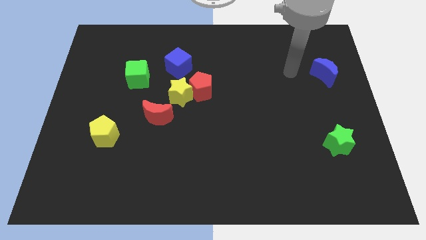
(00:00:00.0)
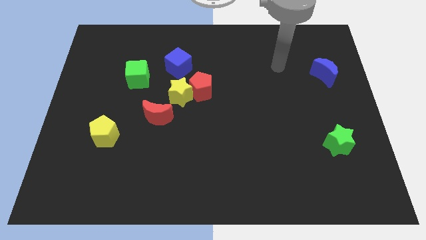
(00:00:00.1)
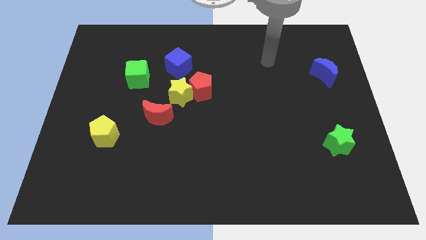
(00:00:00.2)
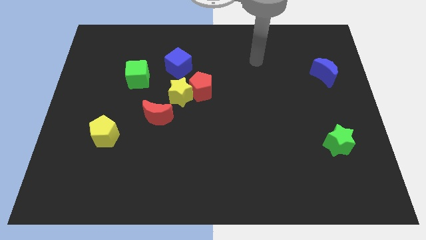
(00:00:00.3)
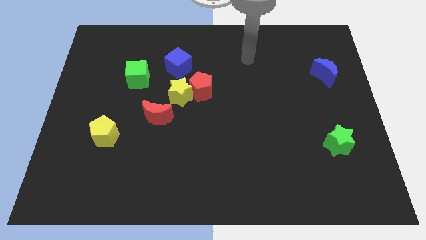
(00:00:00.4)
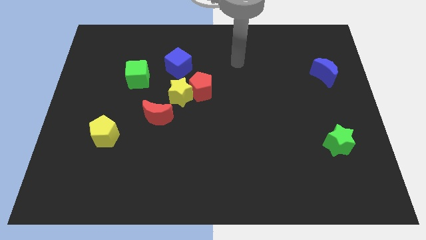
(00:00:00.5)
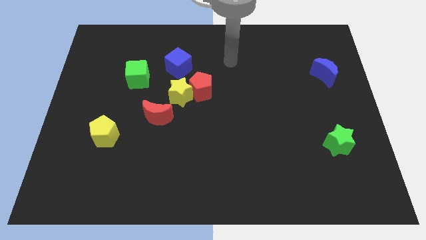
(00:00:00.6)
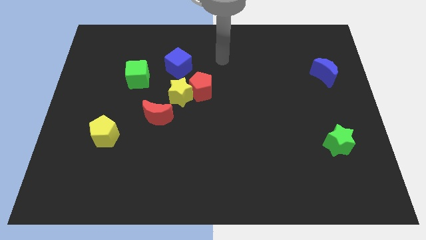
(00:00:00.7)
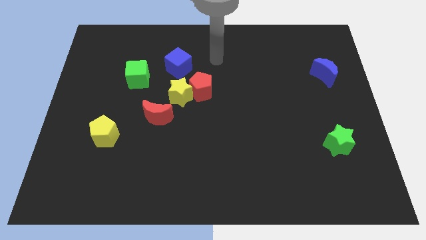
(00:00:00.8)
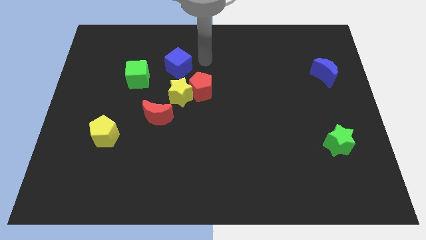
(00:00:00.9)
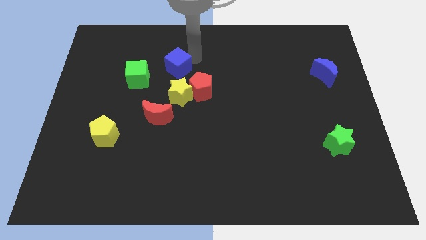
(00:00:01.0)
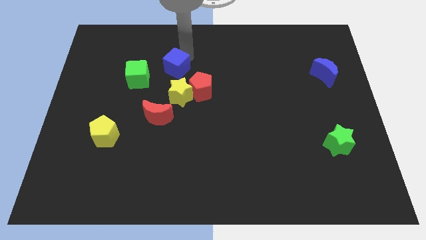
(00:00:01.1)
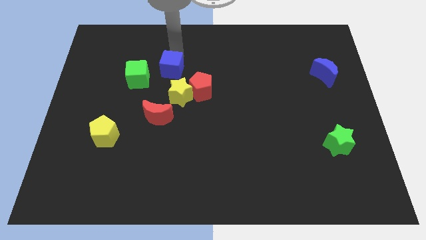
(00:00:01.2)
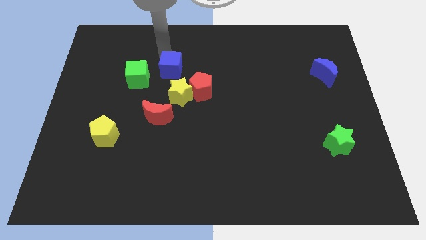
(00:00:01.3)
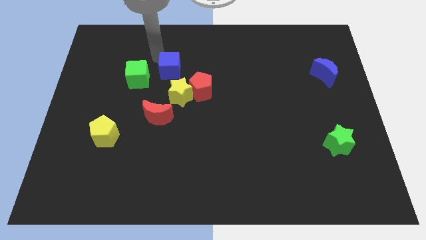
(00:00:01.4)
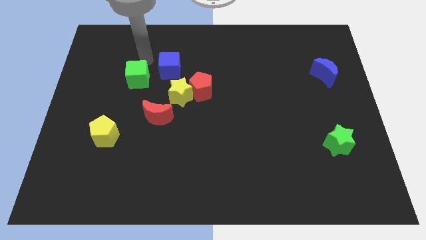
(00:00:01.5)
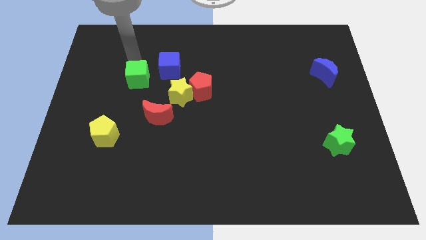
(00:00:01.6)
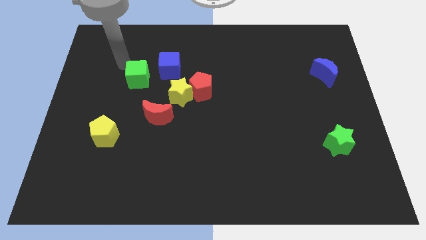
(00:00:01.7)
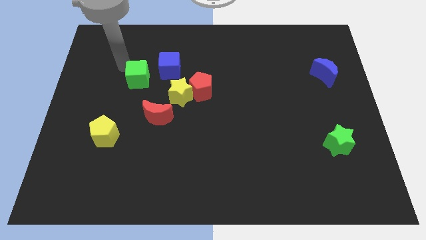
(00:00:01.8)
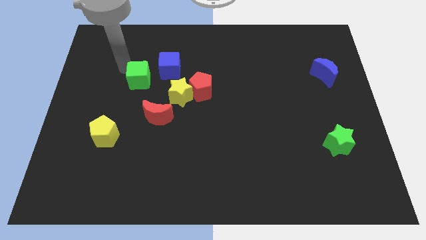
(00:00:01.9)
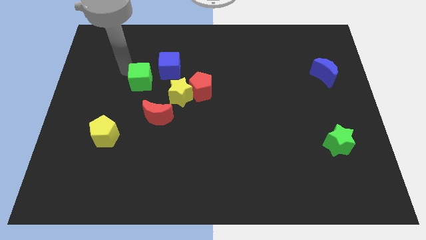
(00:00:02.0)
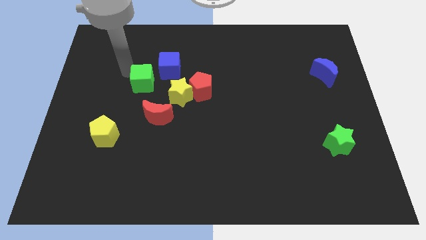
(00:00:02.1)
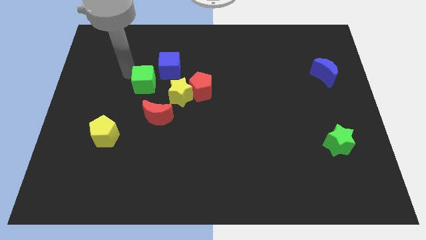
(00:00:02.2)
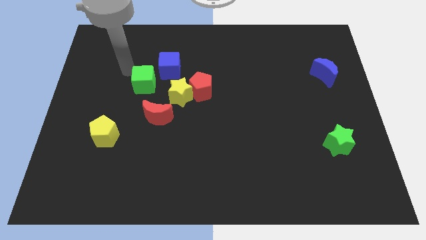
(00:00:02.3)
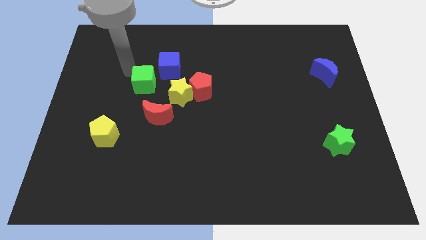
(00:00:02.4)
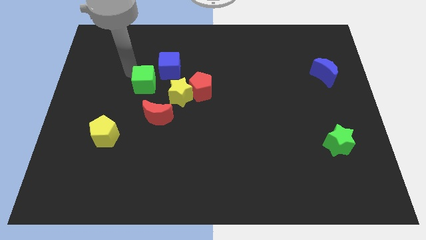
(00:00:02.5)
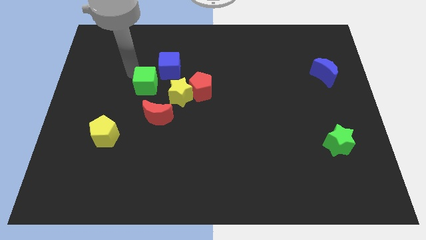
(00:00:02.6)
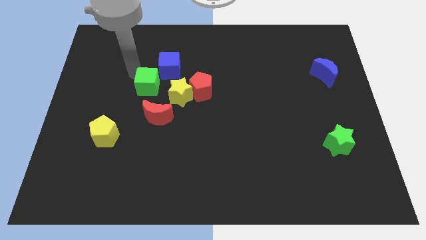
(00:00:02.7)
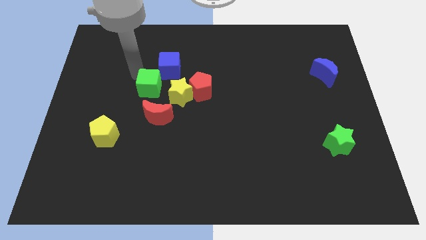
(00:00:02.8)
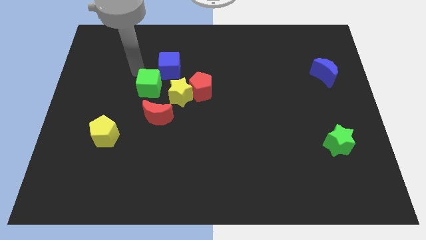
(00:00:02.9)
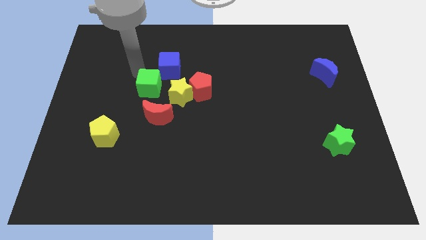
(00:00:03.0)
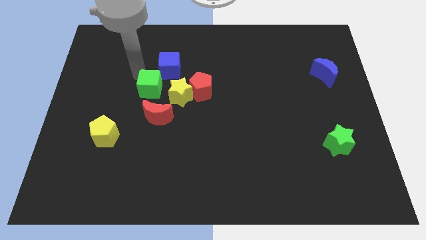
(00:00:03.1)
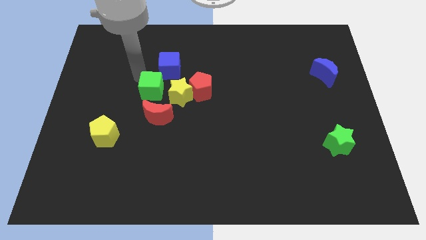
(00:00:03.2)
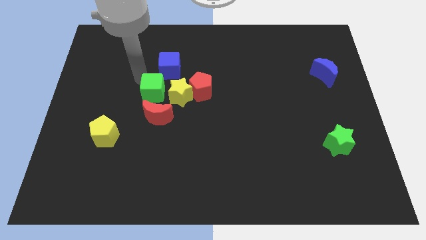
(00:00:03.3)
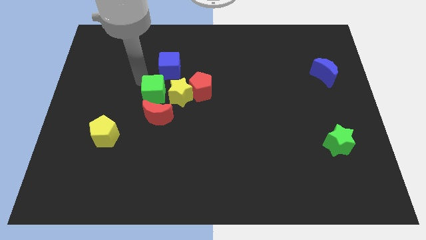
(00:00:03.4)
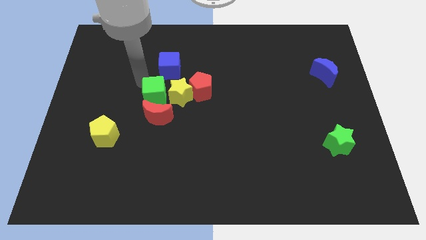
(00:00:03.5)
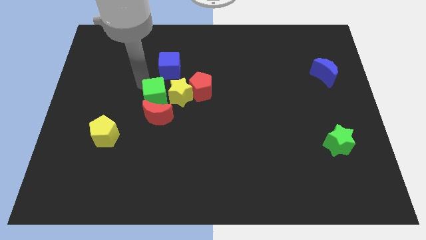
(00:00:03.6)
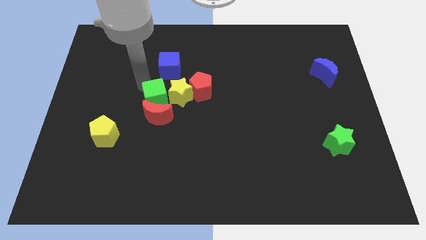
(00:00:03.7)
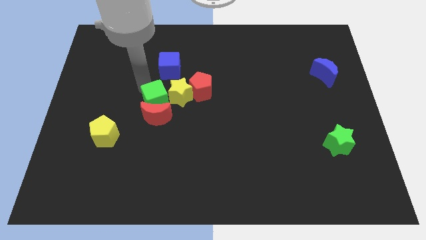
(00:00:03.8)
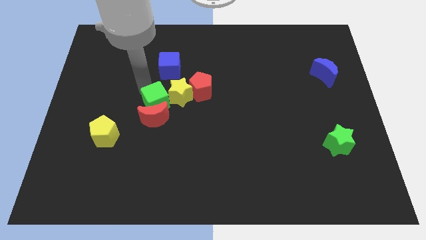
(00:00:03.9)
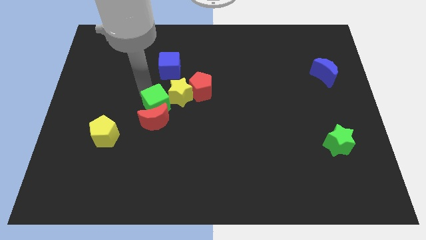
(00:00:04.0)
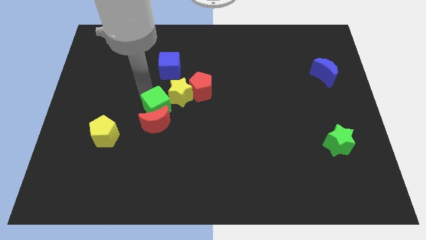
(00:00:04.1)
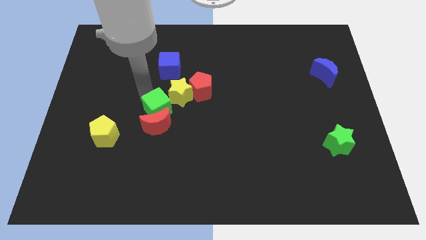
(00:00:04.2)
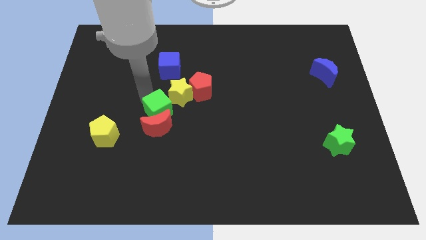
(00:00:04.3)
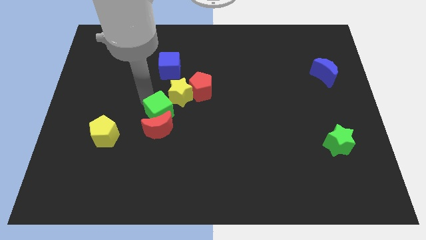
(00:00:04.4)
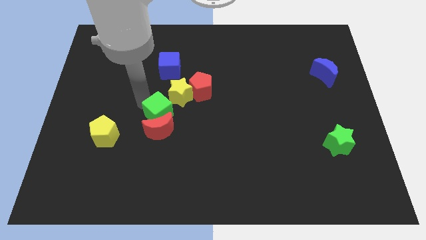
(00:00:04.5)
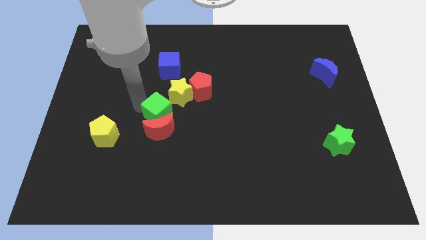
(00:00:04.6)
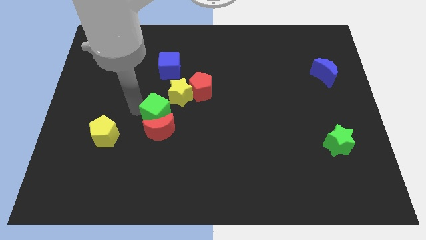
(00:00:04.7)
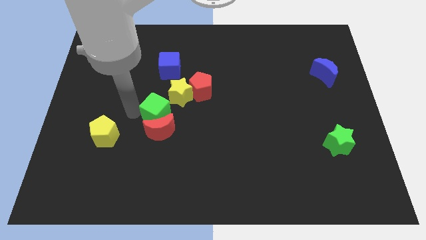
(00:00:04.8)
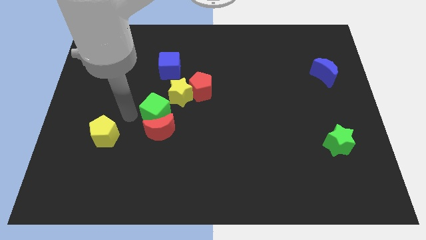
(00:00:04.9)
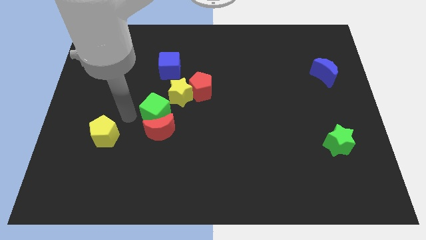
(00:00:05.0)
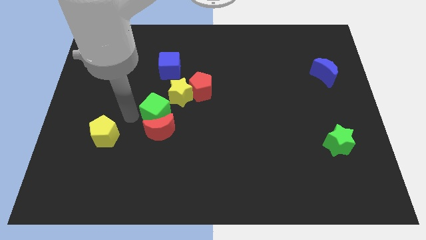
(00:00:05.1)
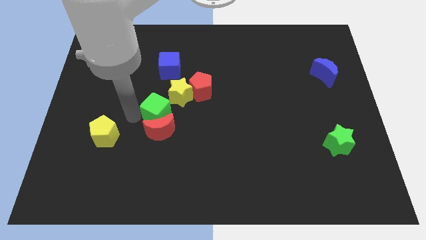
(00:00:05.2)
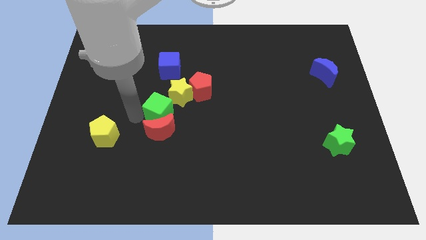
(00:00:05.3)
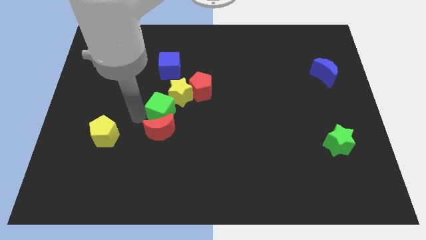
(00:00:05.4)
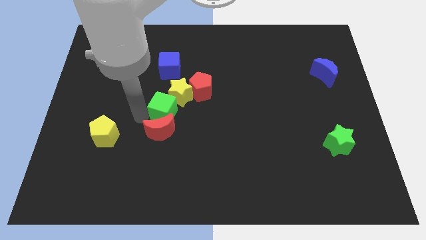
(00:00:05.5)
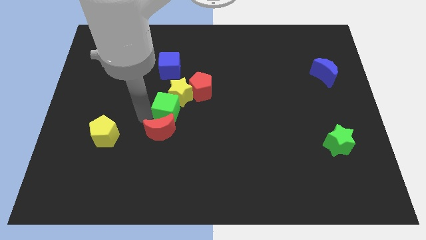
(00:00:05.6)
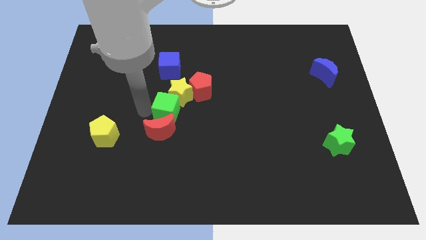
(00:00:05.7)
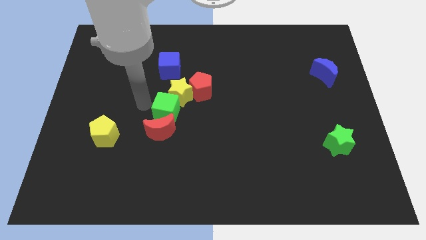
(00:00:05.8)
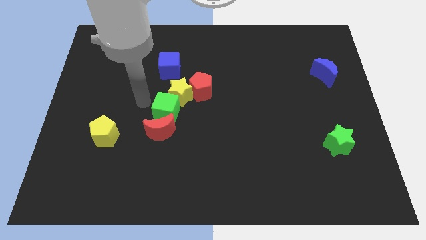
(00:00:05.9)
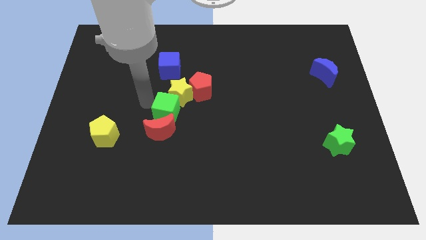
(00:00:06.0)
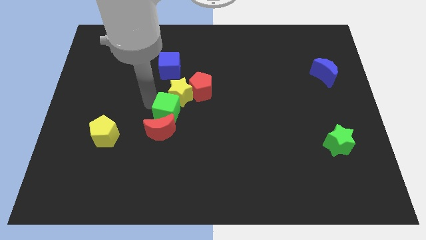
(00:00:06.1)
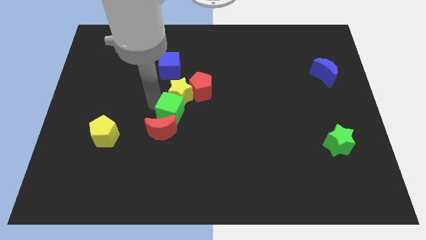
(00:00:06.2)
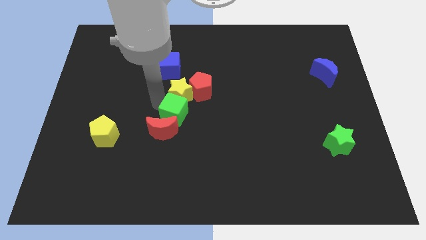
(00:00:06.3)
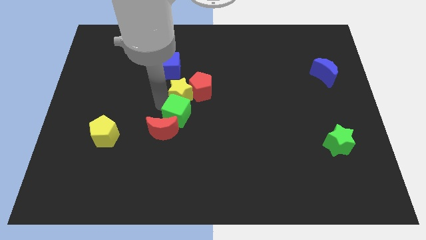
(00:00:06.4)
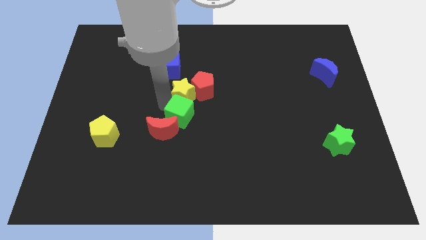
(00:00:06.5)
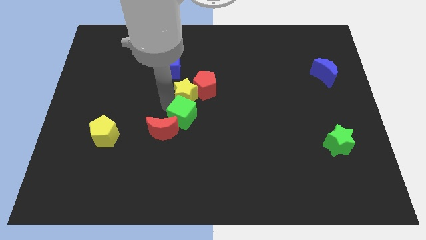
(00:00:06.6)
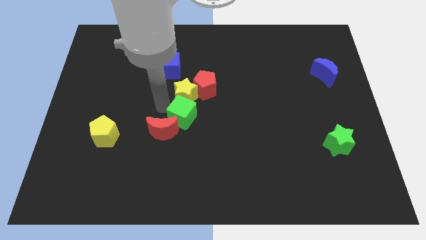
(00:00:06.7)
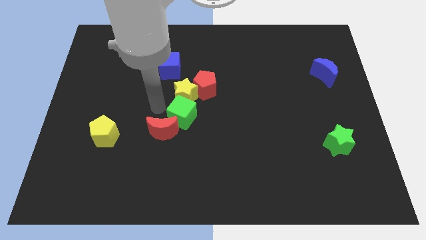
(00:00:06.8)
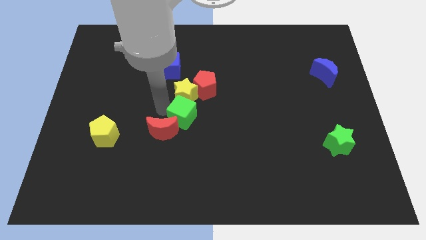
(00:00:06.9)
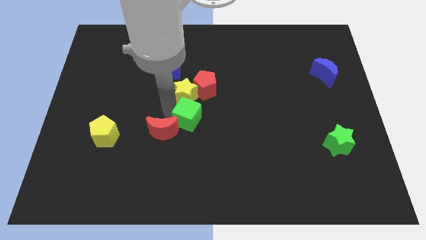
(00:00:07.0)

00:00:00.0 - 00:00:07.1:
push the green cube below the red pentagon
